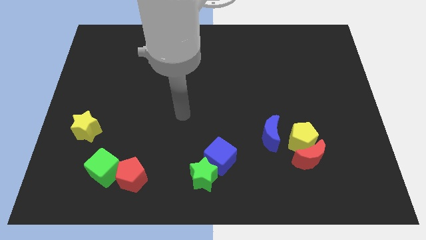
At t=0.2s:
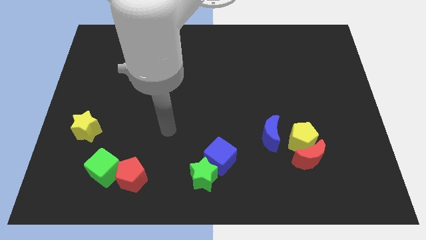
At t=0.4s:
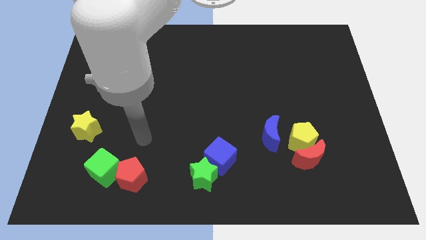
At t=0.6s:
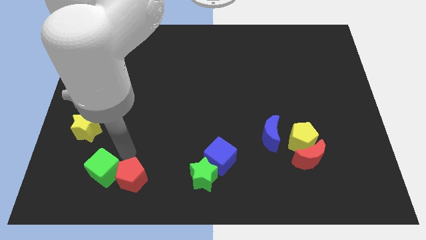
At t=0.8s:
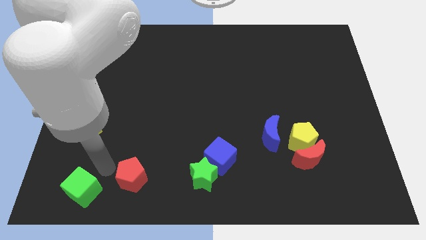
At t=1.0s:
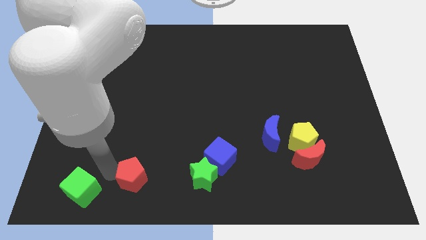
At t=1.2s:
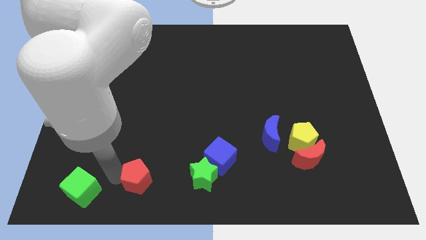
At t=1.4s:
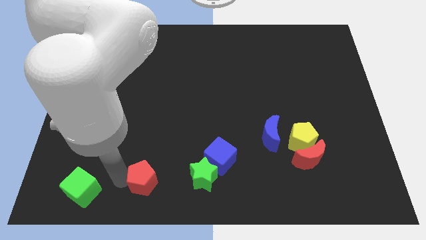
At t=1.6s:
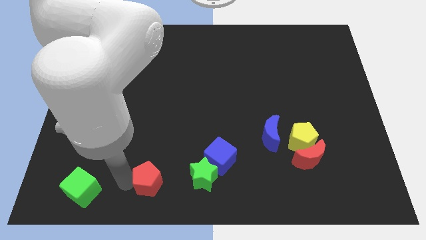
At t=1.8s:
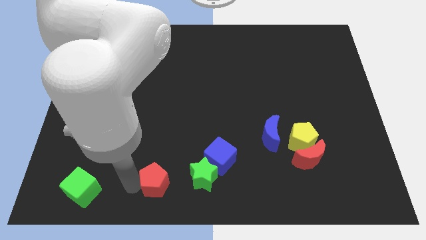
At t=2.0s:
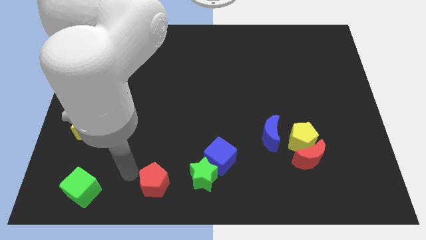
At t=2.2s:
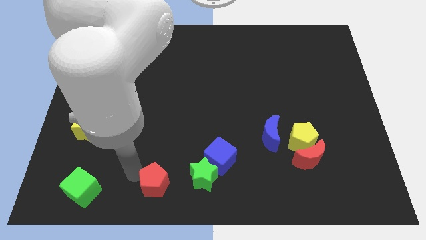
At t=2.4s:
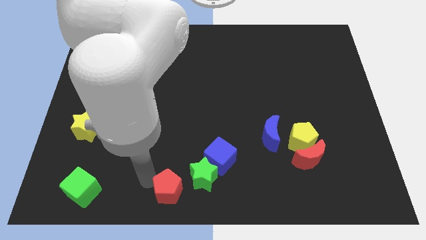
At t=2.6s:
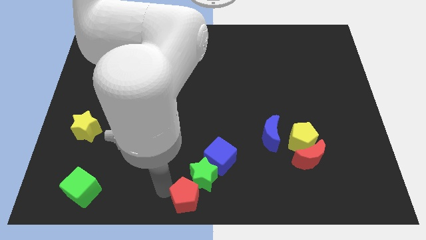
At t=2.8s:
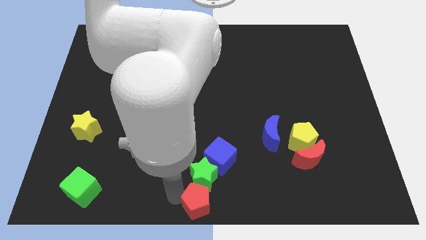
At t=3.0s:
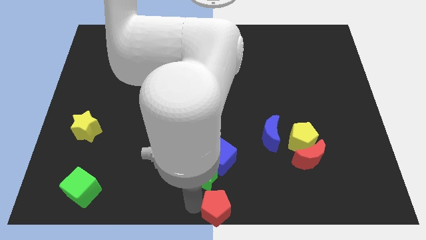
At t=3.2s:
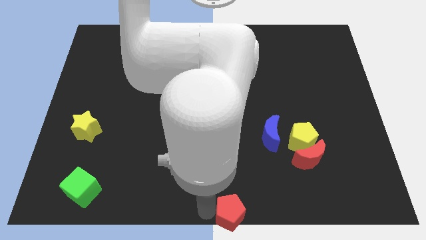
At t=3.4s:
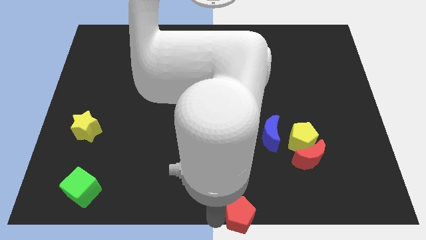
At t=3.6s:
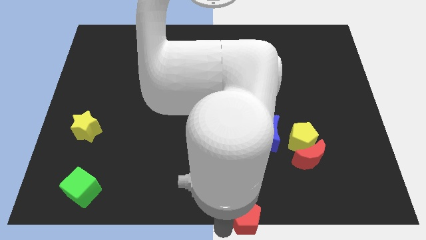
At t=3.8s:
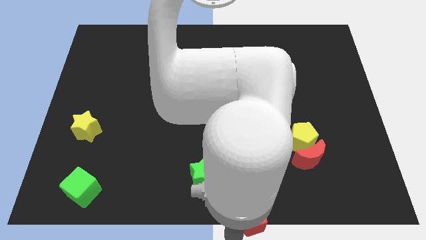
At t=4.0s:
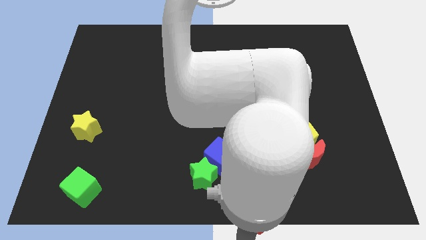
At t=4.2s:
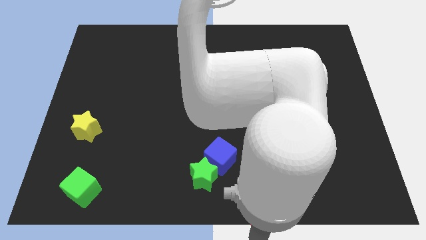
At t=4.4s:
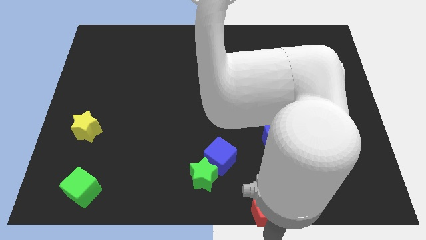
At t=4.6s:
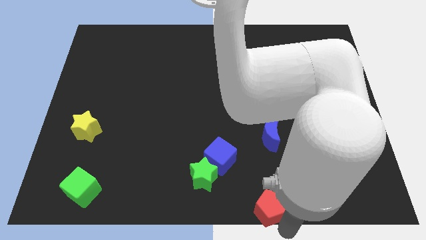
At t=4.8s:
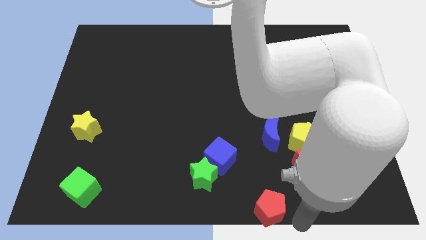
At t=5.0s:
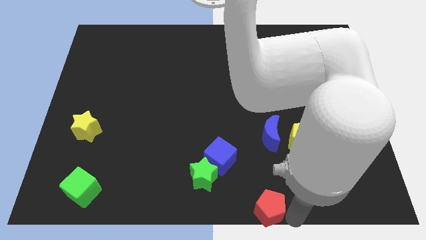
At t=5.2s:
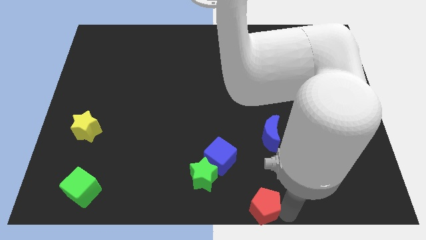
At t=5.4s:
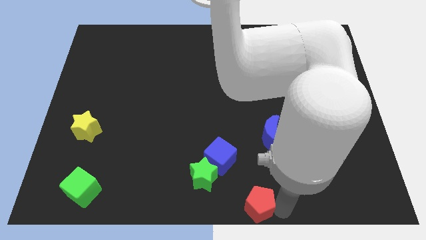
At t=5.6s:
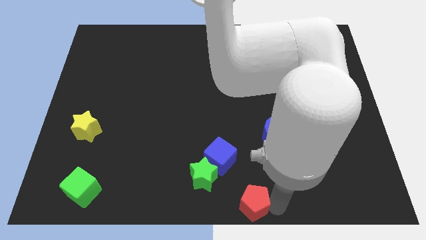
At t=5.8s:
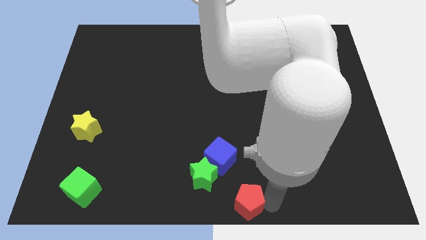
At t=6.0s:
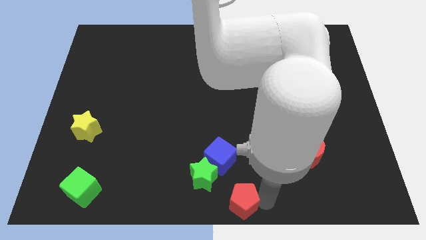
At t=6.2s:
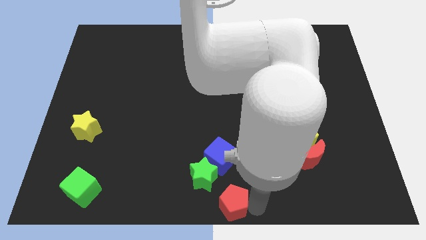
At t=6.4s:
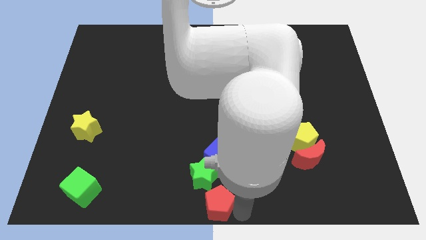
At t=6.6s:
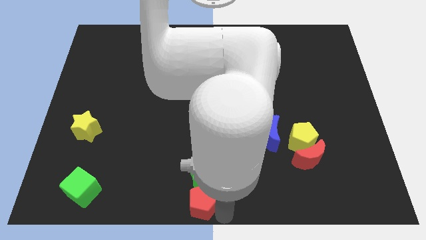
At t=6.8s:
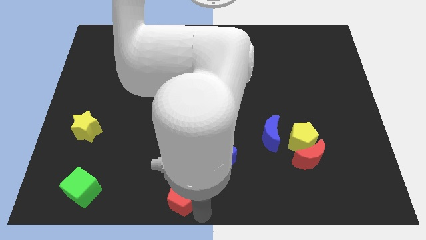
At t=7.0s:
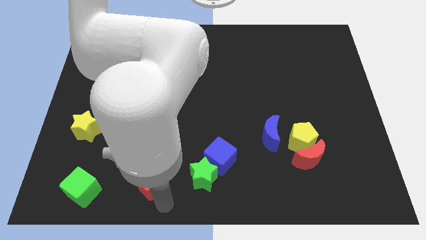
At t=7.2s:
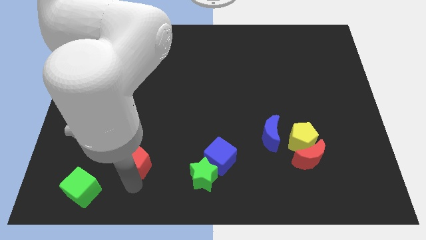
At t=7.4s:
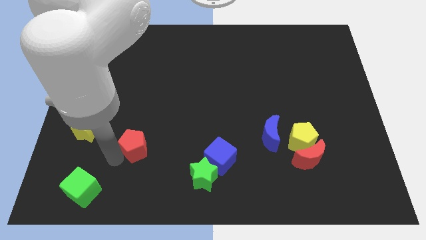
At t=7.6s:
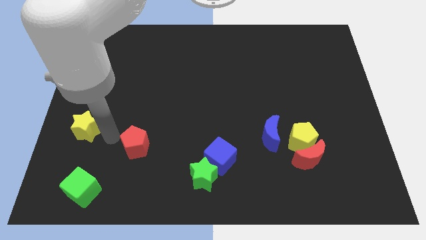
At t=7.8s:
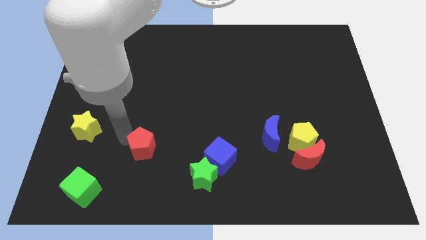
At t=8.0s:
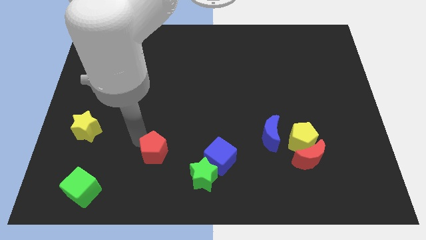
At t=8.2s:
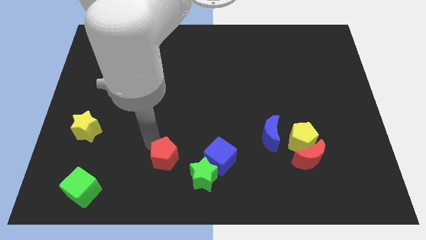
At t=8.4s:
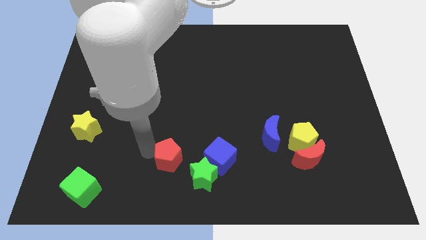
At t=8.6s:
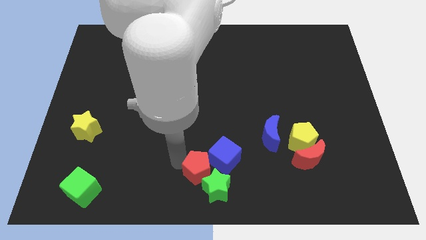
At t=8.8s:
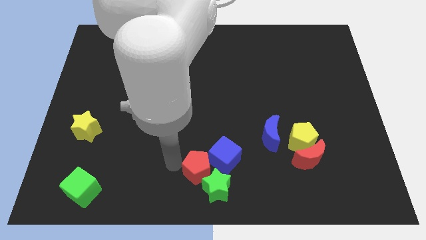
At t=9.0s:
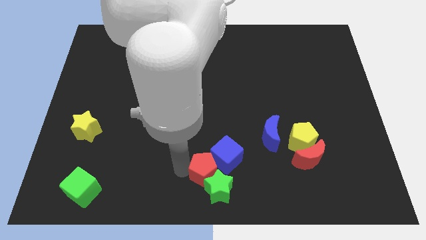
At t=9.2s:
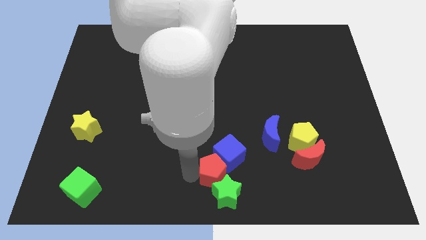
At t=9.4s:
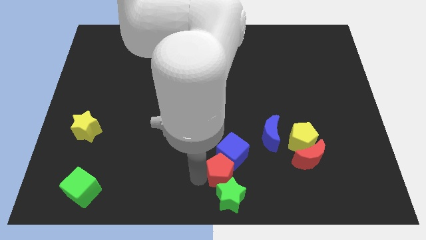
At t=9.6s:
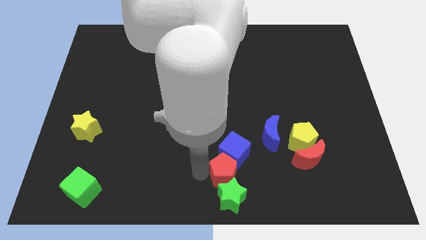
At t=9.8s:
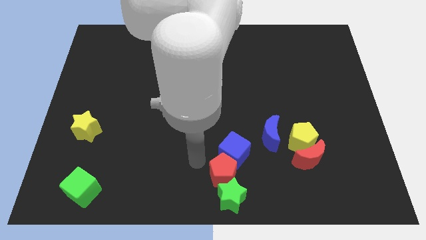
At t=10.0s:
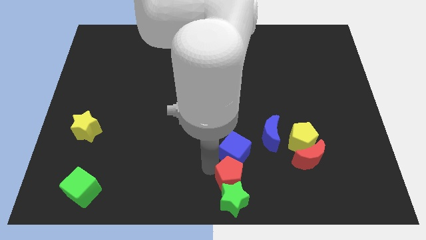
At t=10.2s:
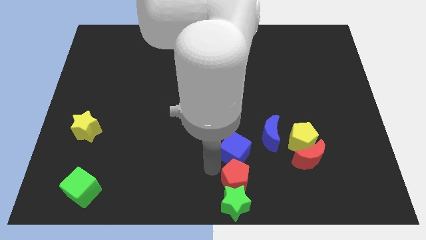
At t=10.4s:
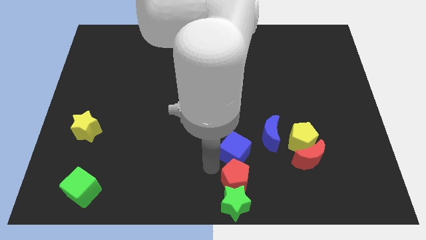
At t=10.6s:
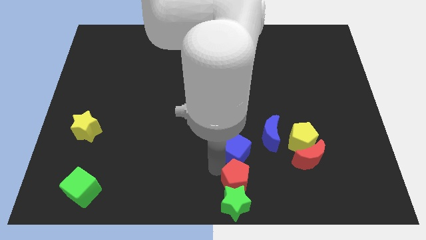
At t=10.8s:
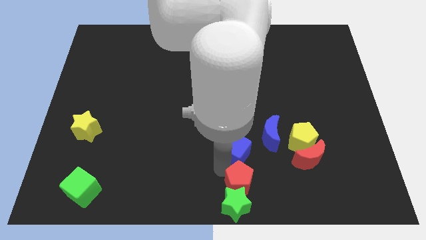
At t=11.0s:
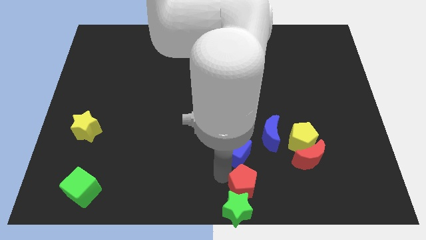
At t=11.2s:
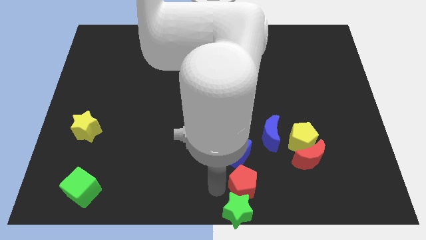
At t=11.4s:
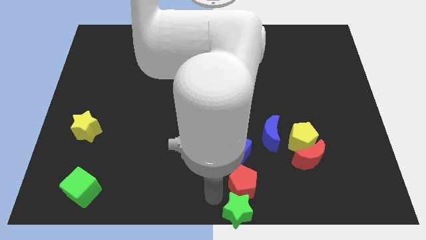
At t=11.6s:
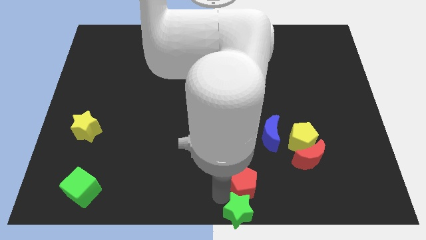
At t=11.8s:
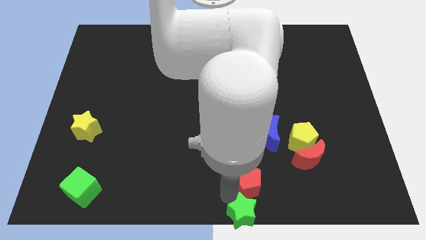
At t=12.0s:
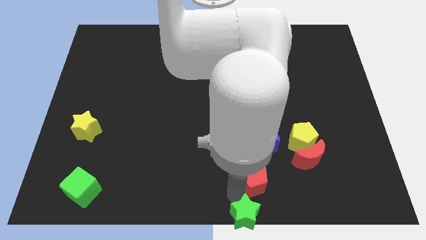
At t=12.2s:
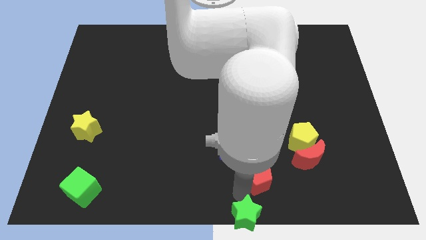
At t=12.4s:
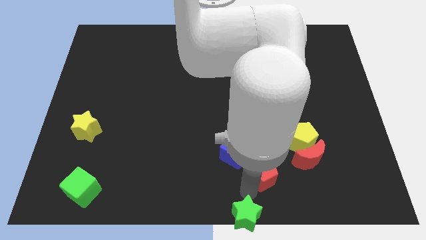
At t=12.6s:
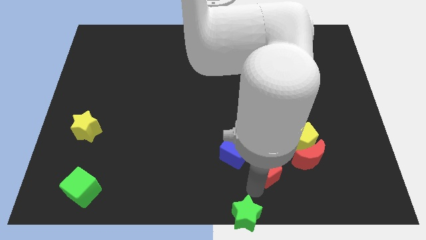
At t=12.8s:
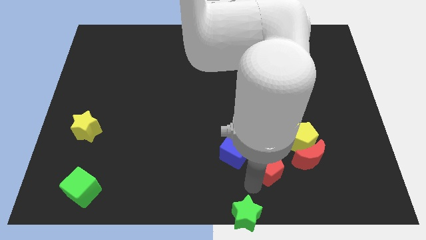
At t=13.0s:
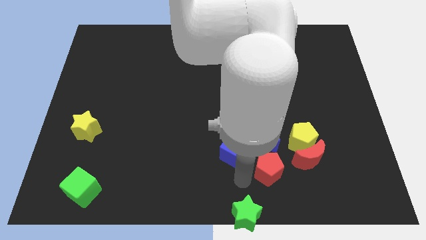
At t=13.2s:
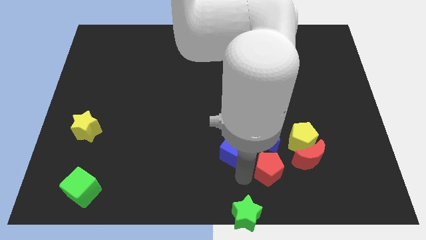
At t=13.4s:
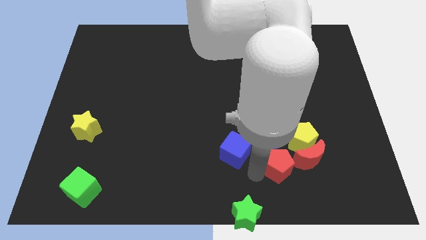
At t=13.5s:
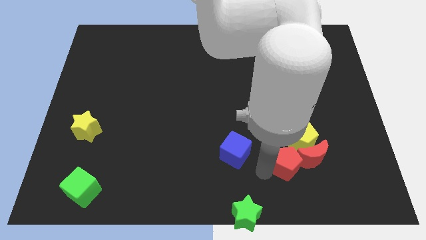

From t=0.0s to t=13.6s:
put the red pentagon close to the red moon

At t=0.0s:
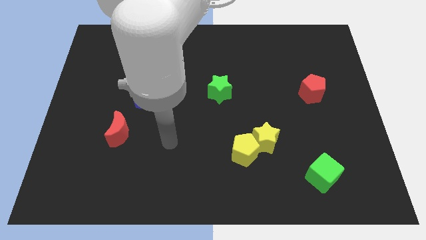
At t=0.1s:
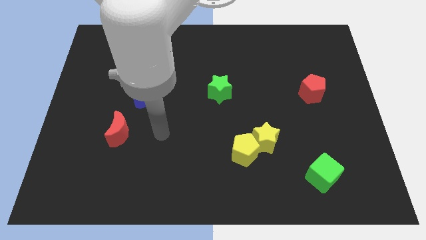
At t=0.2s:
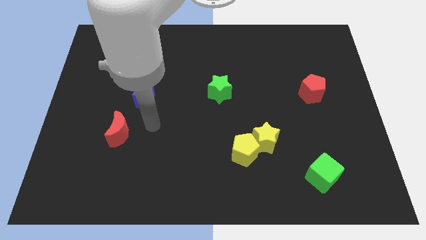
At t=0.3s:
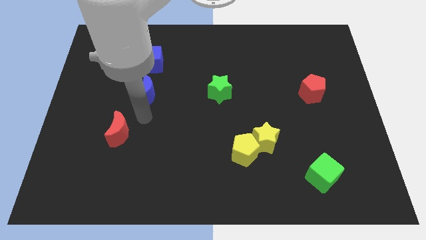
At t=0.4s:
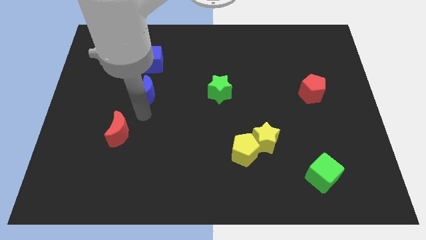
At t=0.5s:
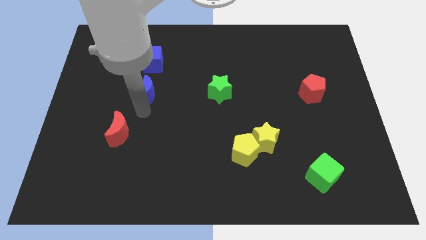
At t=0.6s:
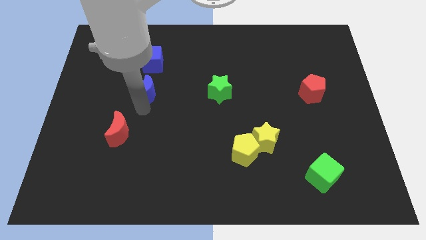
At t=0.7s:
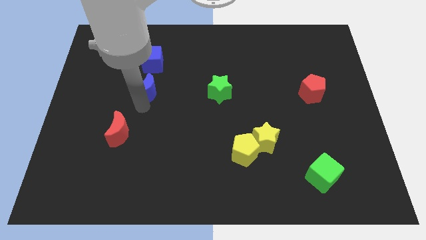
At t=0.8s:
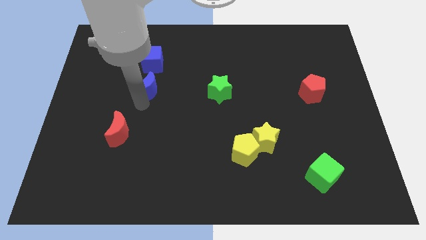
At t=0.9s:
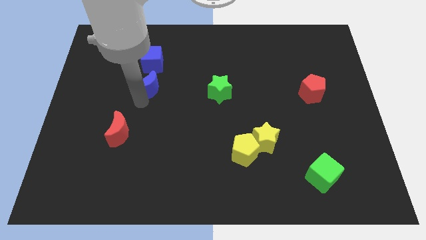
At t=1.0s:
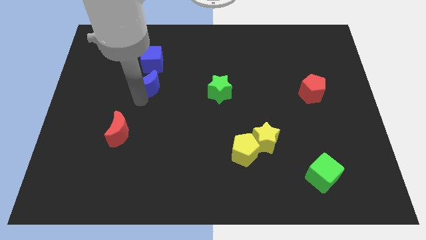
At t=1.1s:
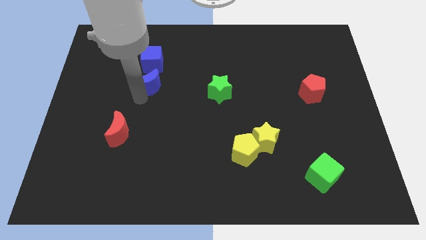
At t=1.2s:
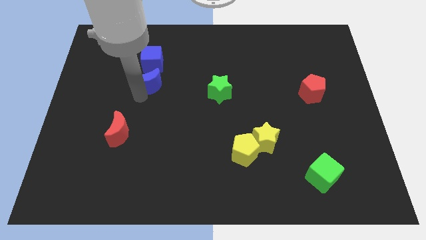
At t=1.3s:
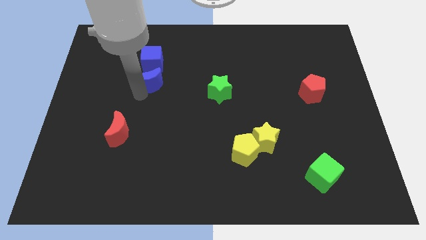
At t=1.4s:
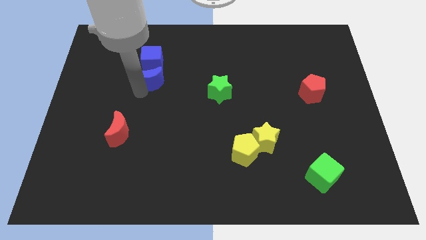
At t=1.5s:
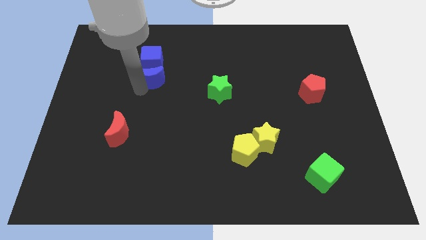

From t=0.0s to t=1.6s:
move the blue moon close to the blue cube
